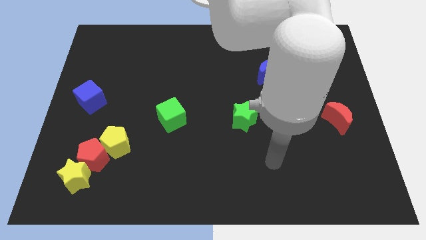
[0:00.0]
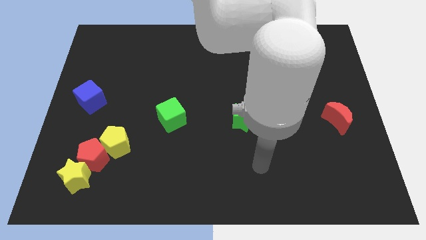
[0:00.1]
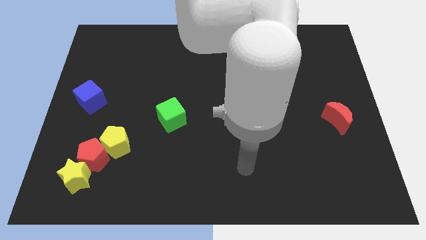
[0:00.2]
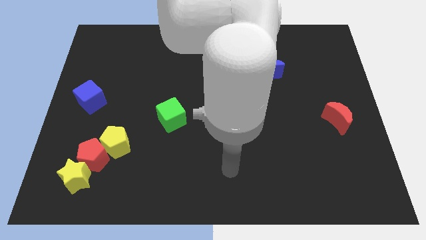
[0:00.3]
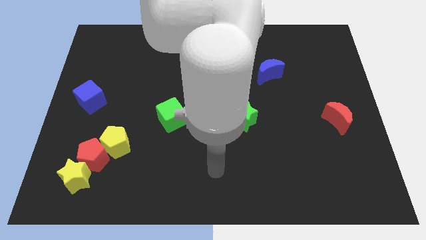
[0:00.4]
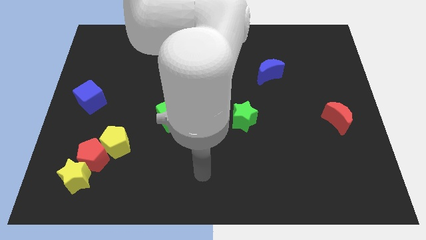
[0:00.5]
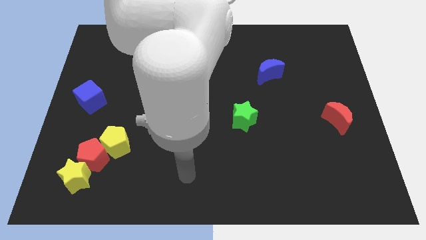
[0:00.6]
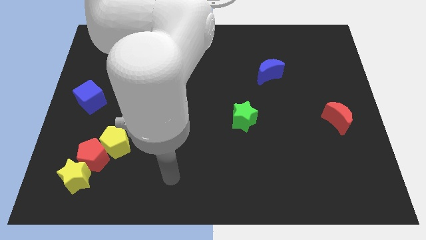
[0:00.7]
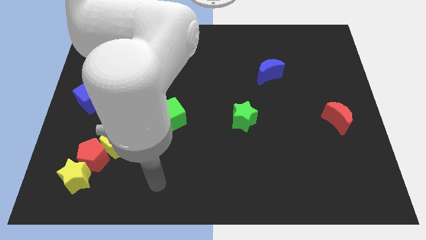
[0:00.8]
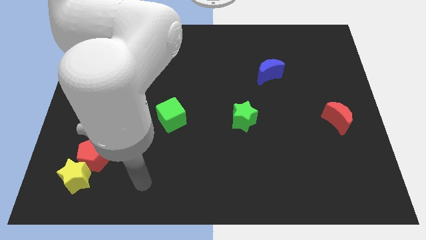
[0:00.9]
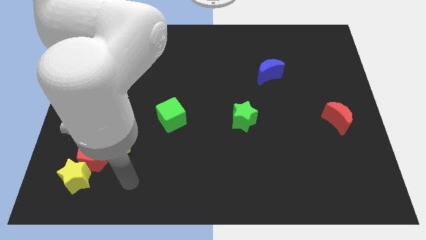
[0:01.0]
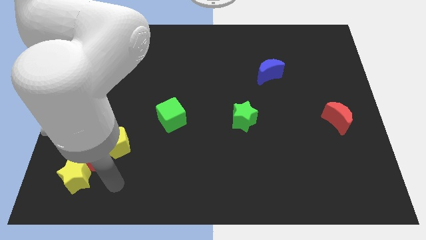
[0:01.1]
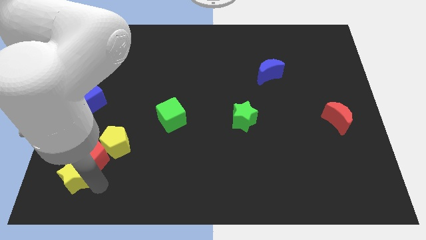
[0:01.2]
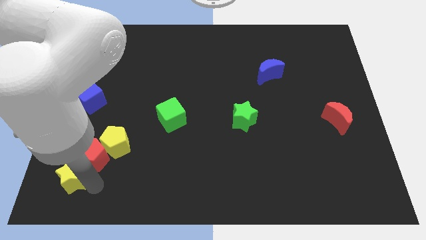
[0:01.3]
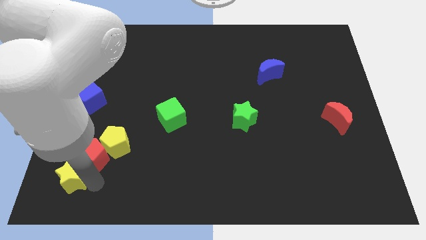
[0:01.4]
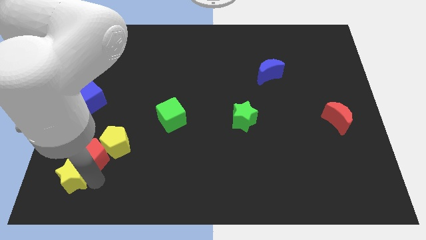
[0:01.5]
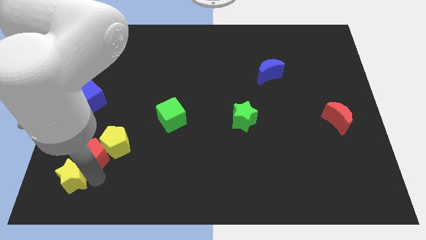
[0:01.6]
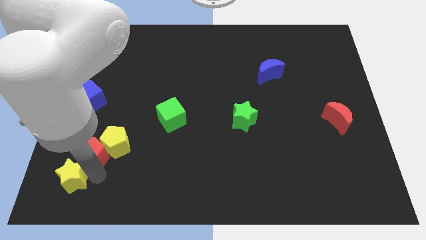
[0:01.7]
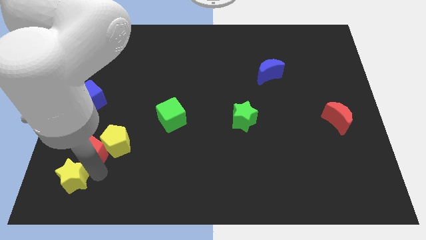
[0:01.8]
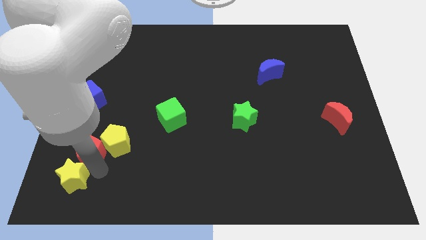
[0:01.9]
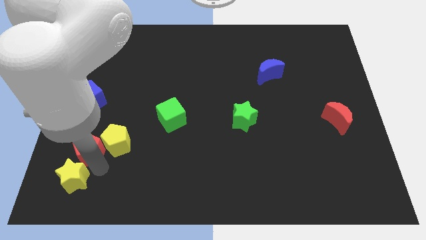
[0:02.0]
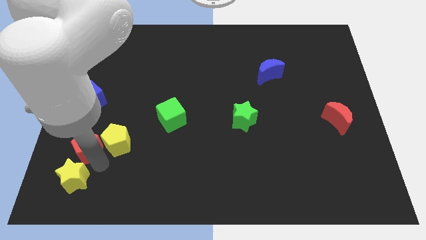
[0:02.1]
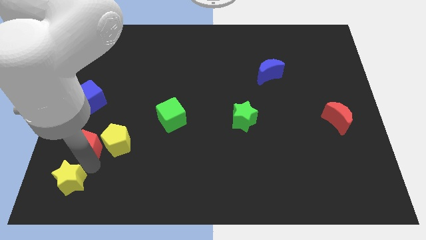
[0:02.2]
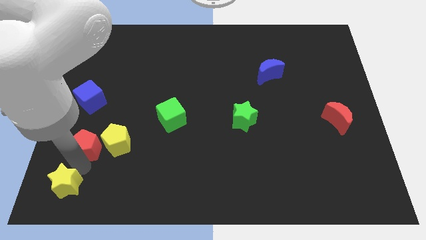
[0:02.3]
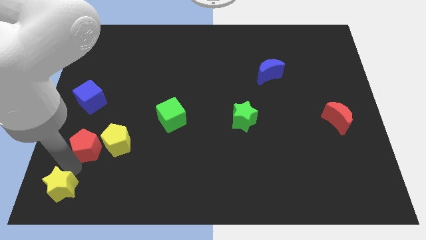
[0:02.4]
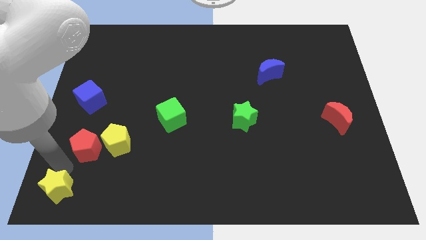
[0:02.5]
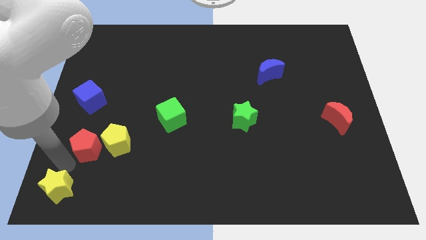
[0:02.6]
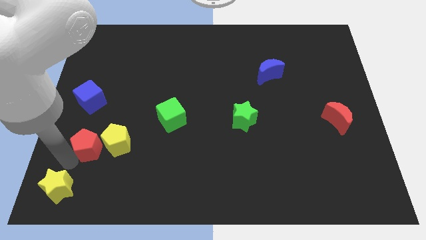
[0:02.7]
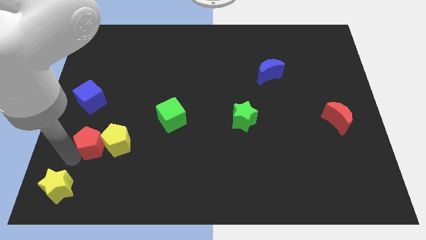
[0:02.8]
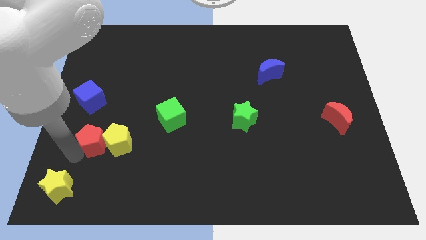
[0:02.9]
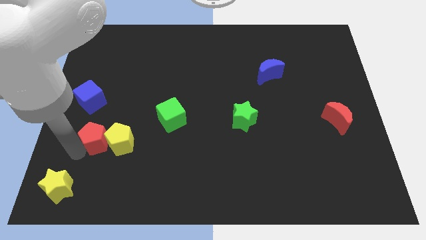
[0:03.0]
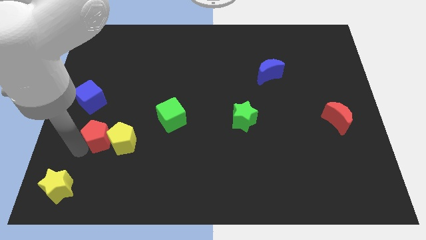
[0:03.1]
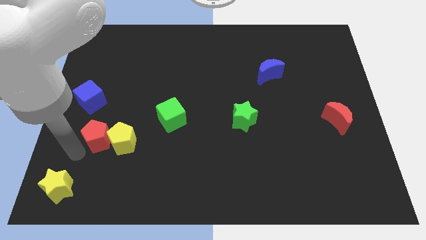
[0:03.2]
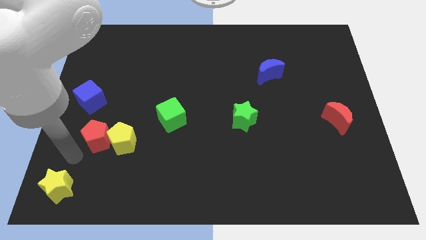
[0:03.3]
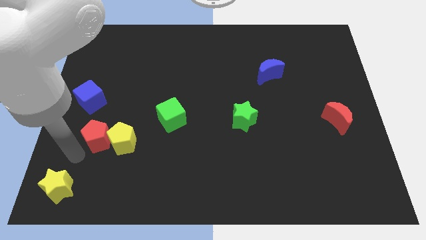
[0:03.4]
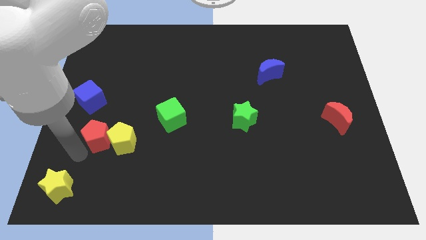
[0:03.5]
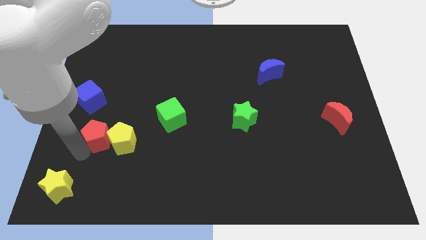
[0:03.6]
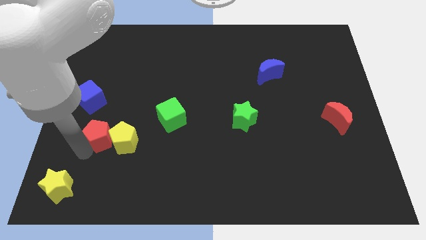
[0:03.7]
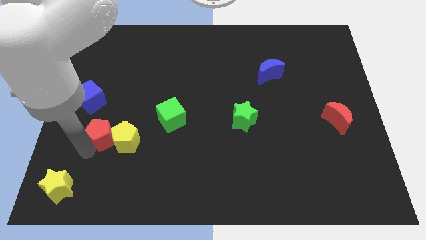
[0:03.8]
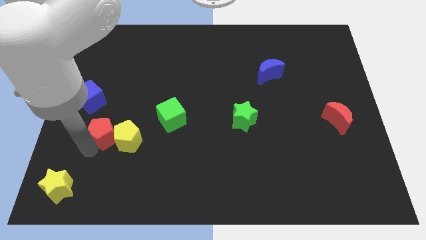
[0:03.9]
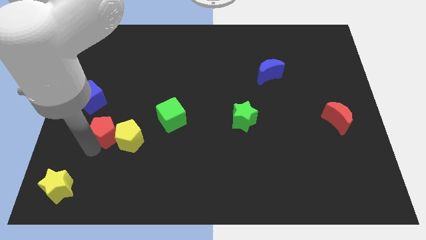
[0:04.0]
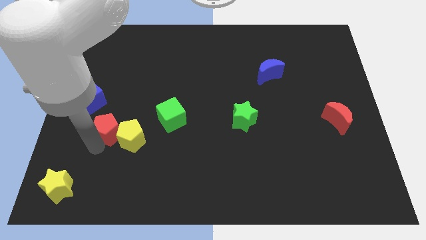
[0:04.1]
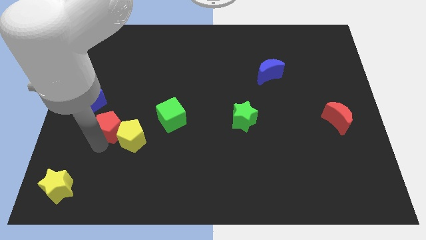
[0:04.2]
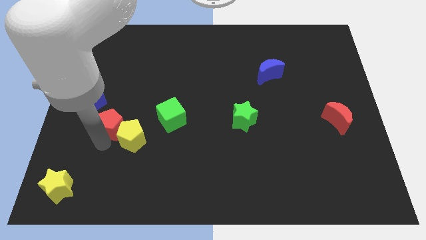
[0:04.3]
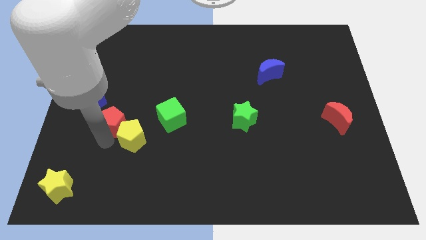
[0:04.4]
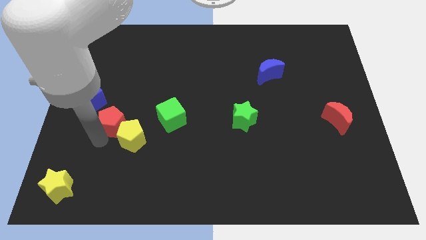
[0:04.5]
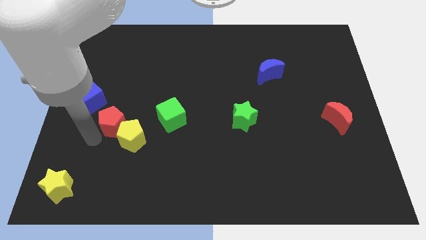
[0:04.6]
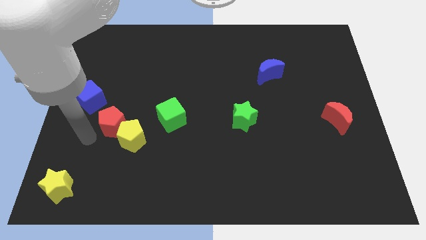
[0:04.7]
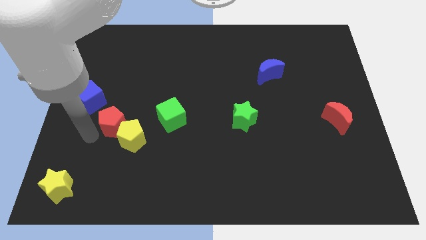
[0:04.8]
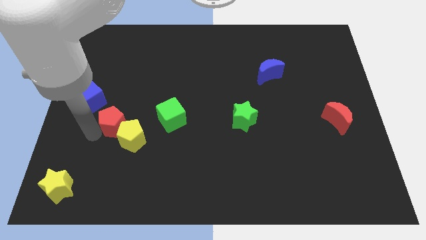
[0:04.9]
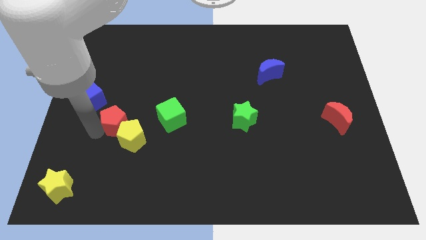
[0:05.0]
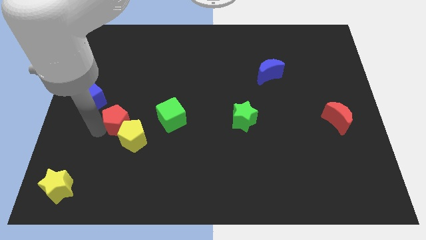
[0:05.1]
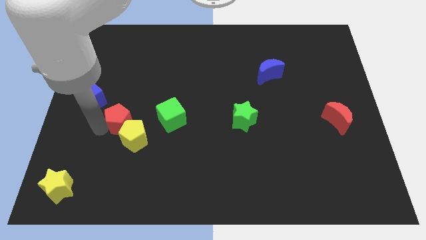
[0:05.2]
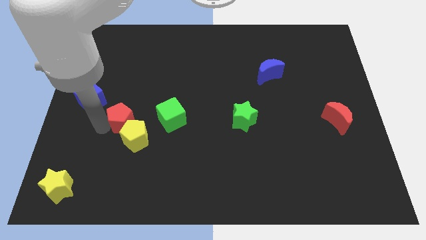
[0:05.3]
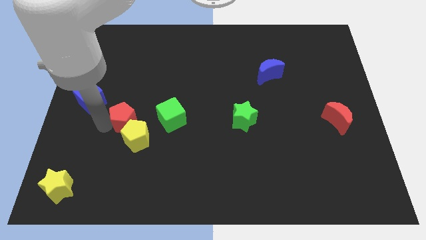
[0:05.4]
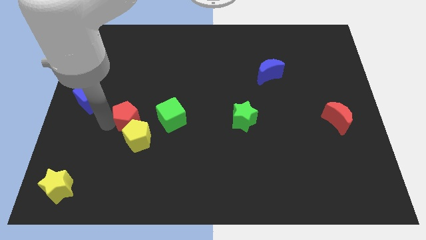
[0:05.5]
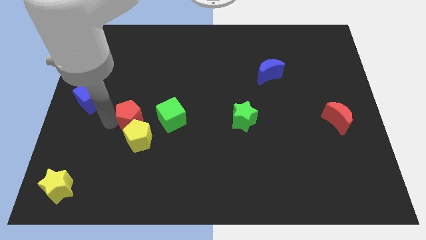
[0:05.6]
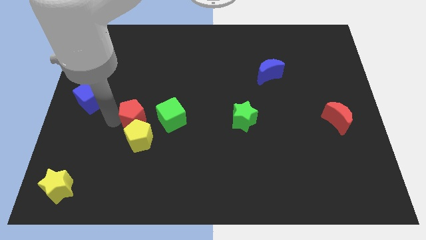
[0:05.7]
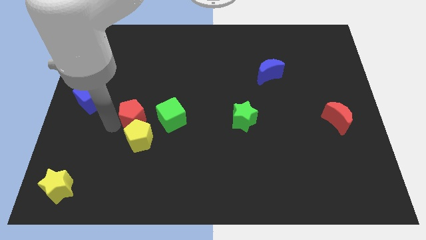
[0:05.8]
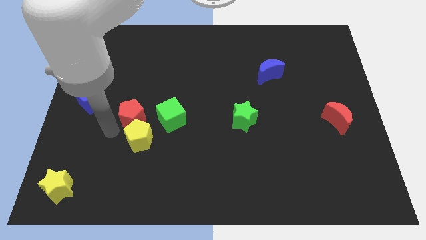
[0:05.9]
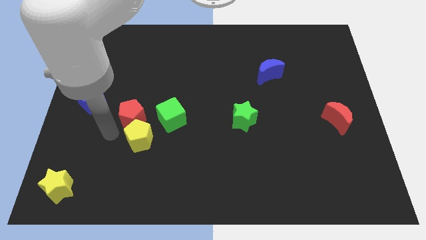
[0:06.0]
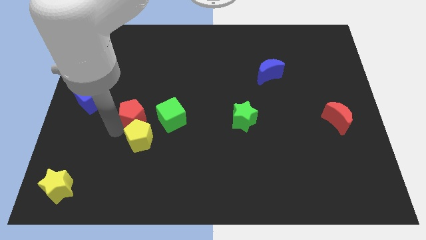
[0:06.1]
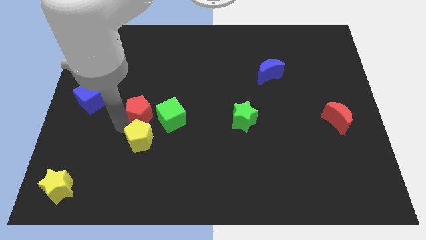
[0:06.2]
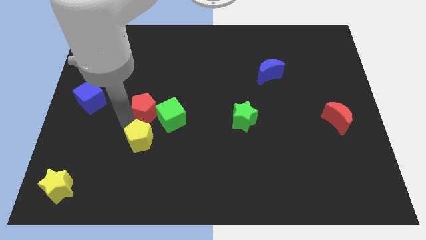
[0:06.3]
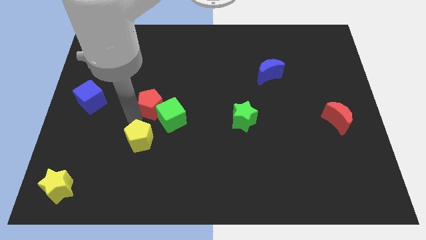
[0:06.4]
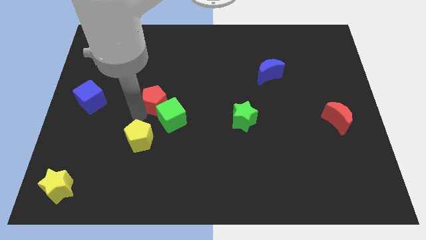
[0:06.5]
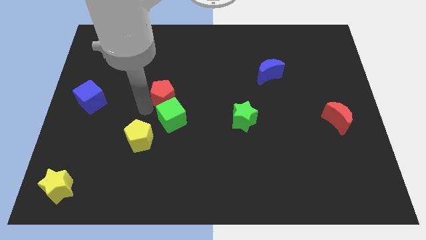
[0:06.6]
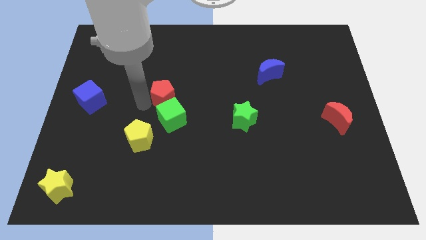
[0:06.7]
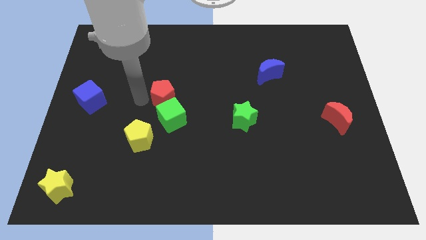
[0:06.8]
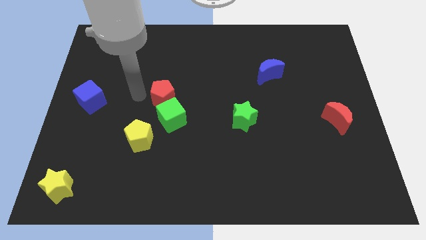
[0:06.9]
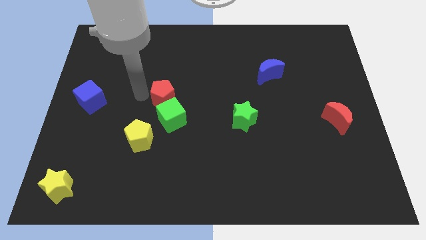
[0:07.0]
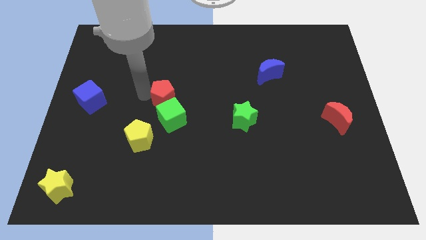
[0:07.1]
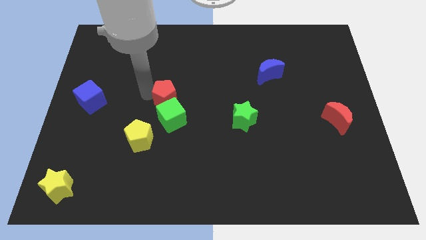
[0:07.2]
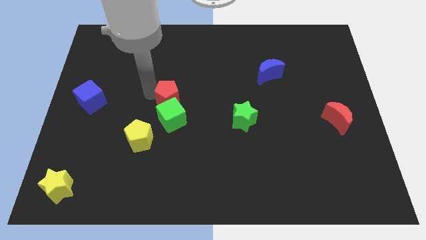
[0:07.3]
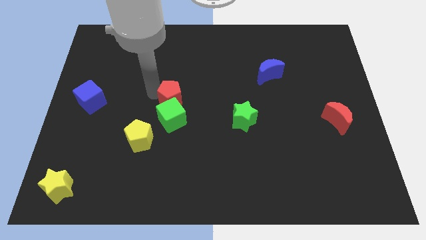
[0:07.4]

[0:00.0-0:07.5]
slide the red pentagon diagonally up and to the right of the green cube
